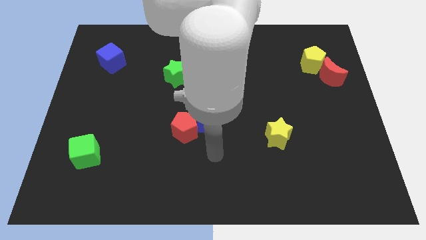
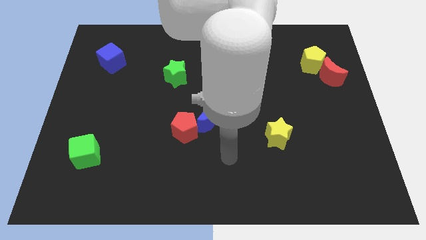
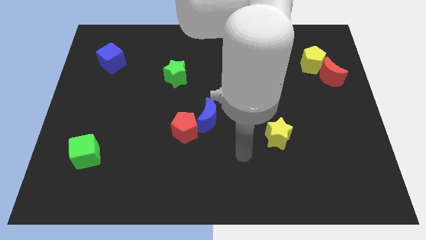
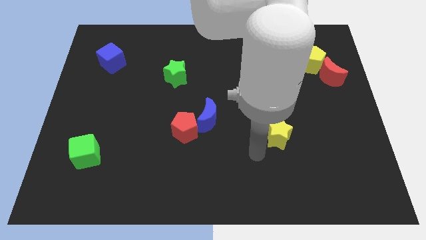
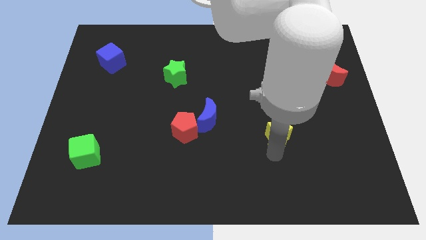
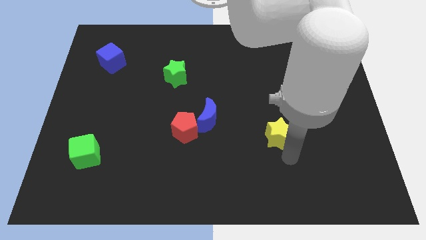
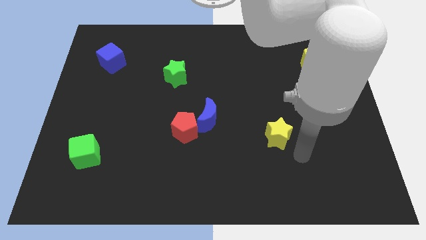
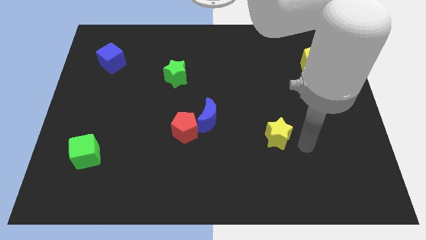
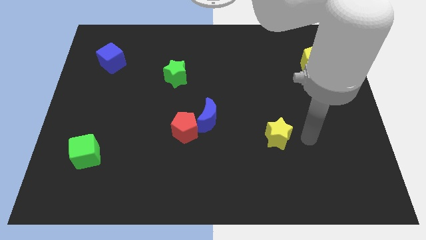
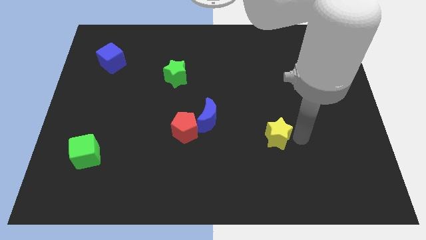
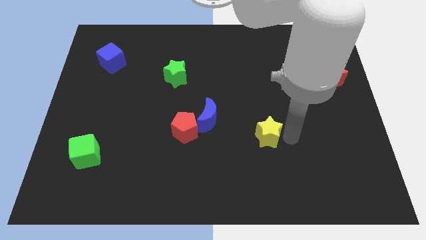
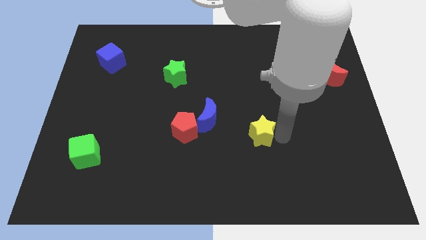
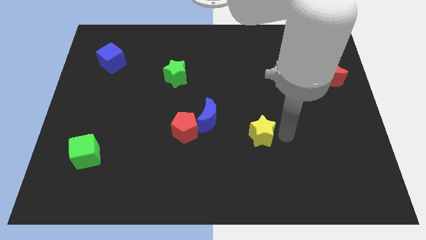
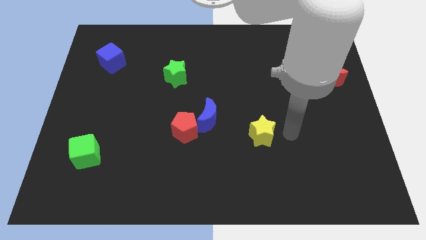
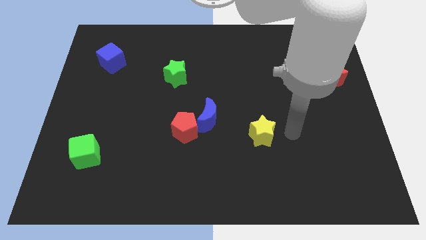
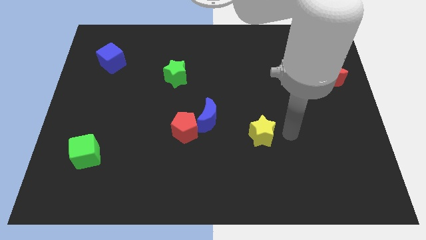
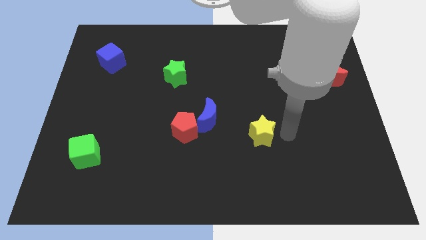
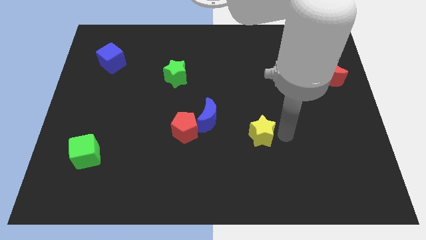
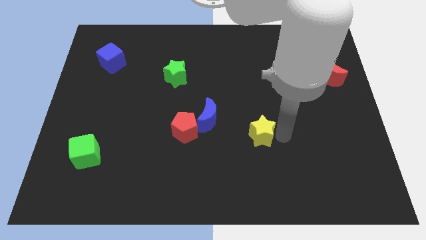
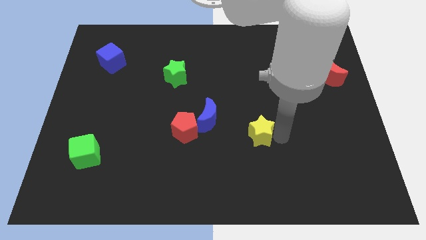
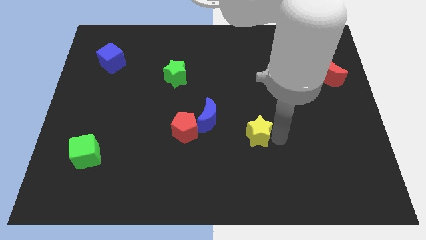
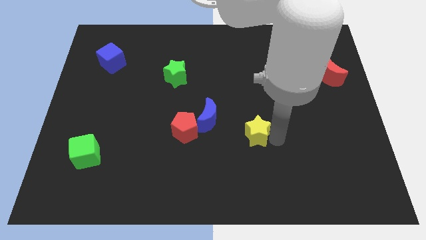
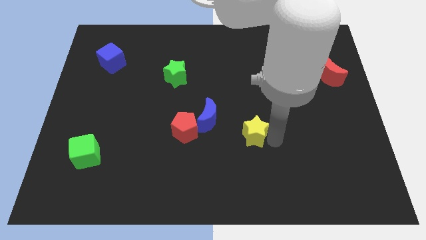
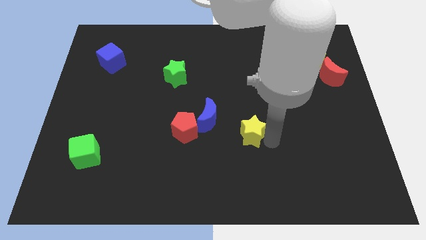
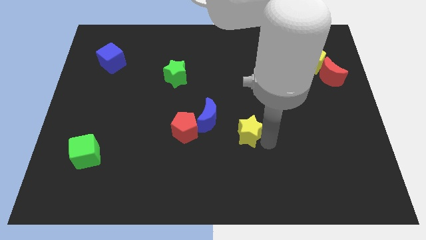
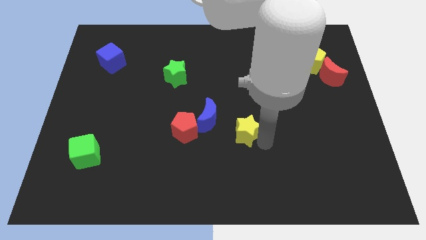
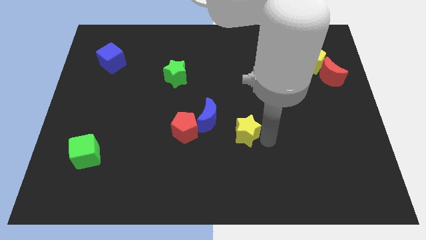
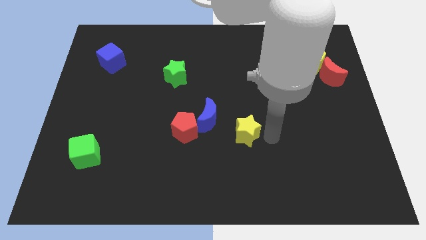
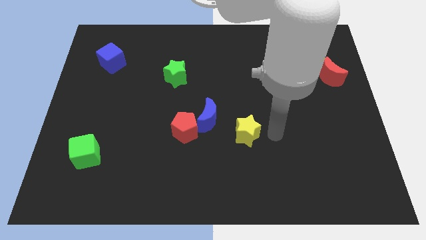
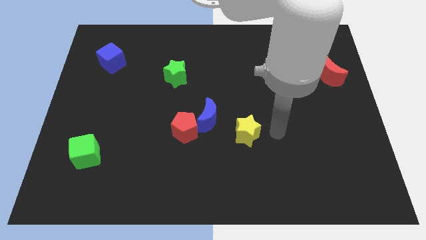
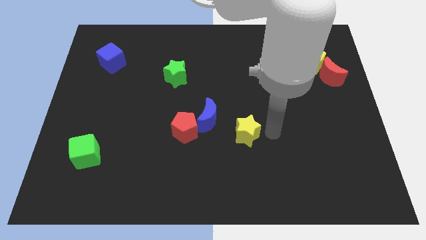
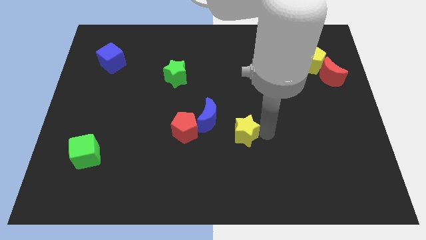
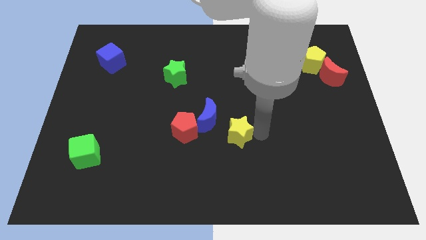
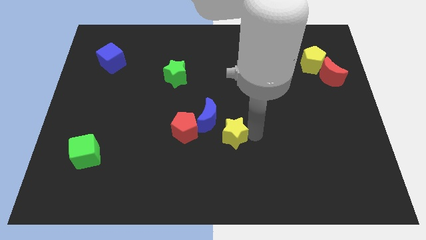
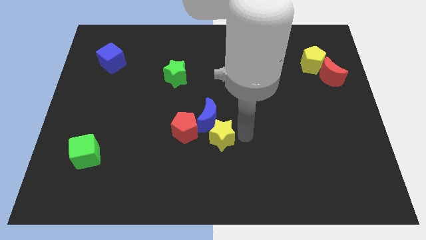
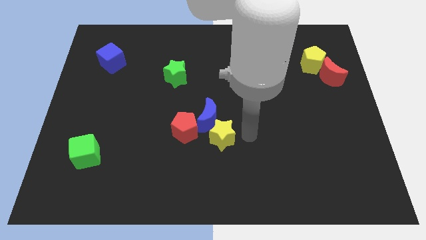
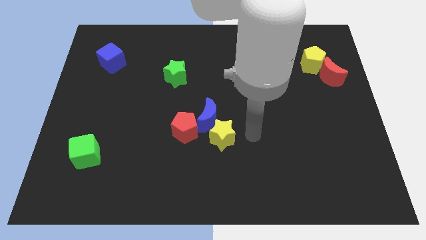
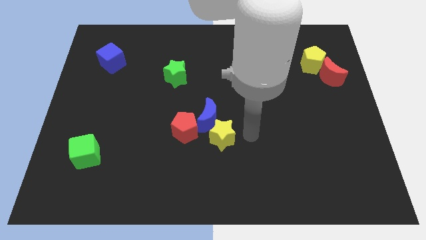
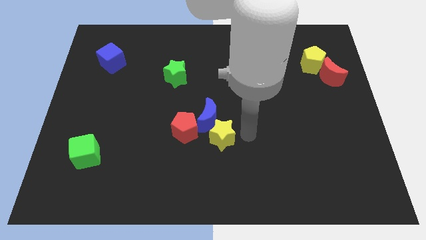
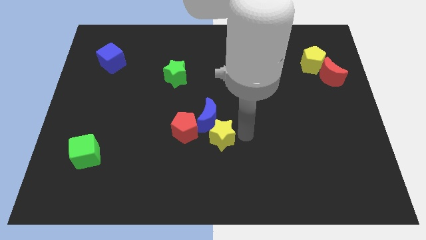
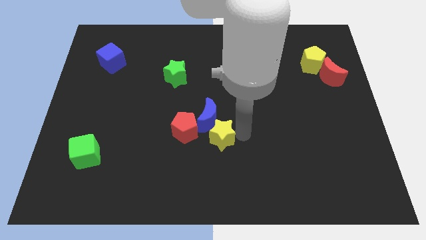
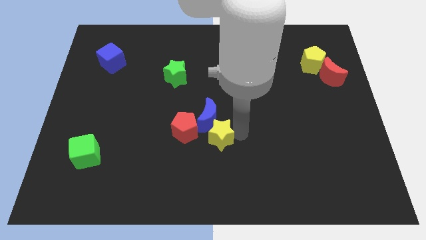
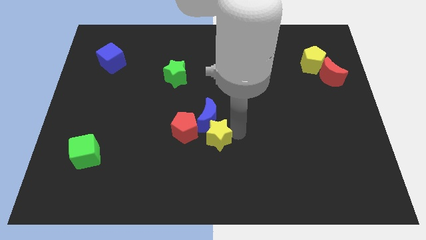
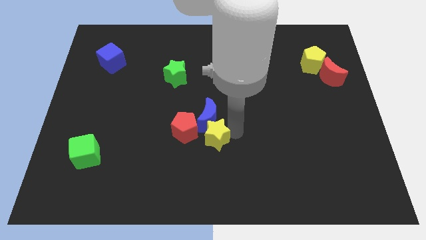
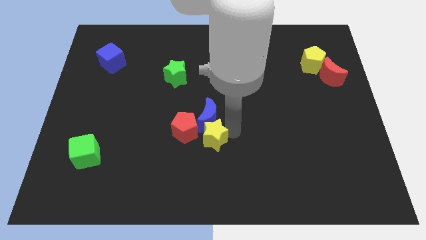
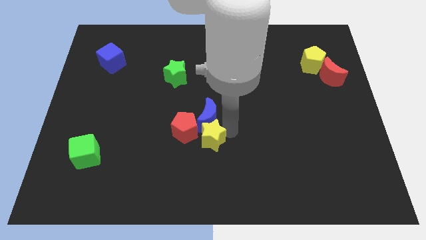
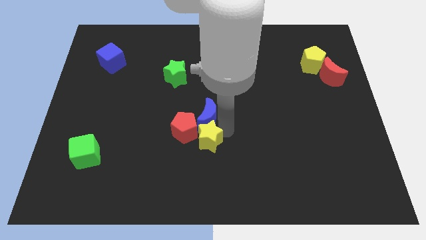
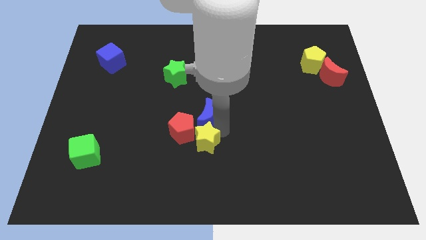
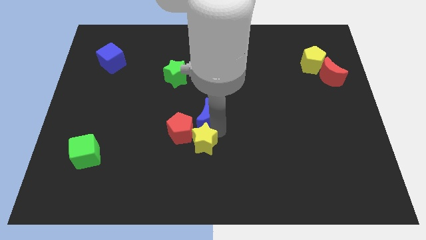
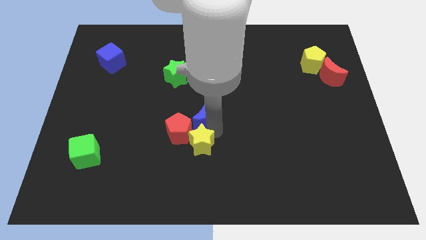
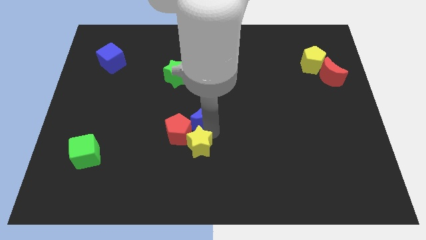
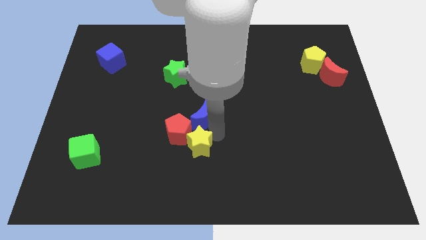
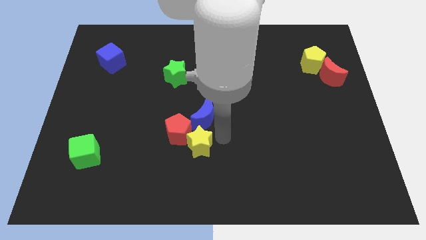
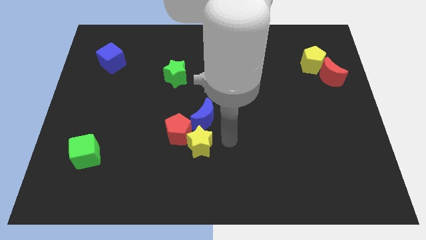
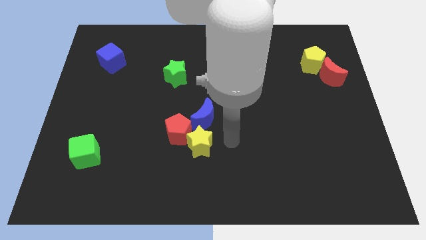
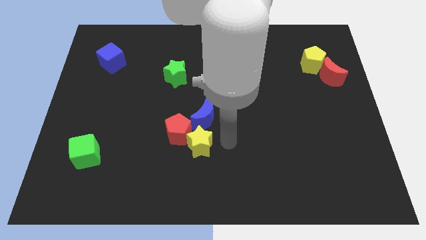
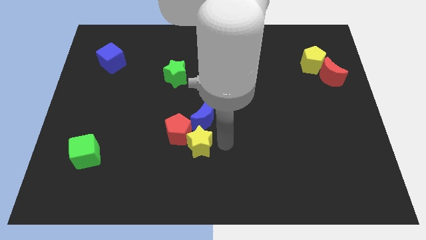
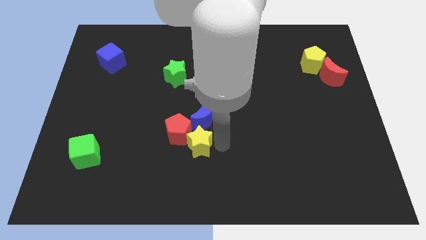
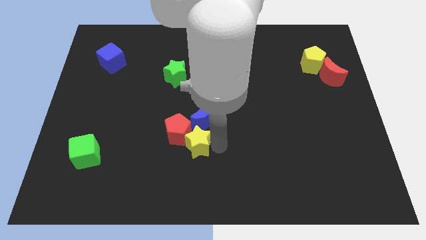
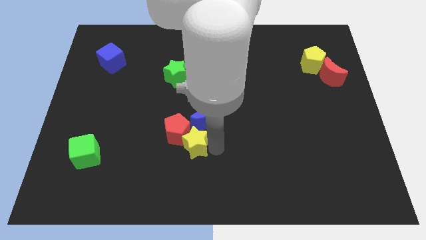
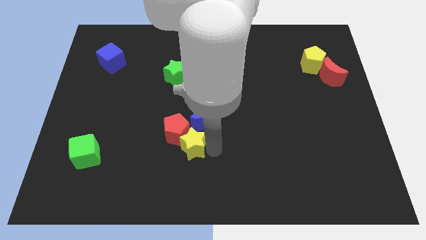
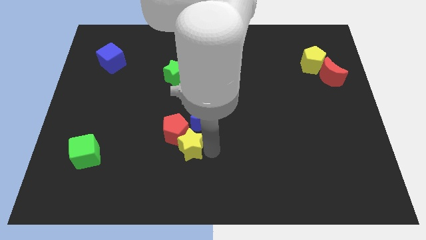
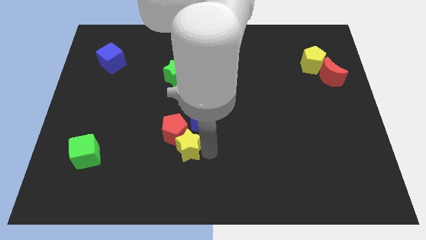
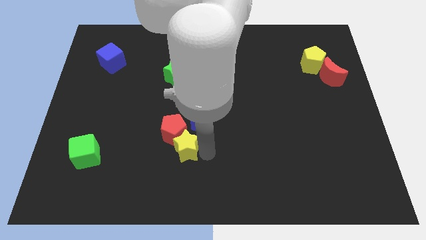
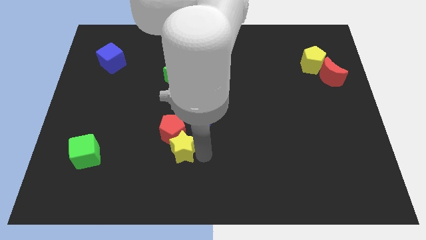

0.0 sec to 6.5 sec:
move the yellow star left

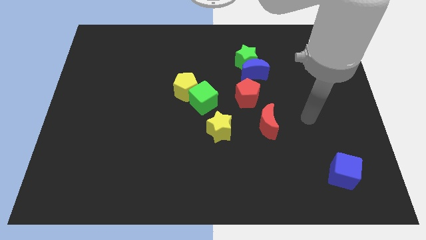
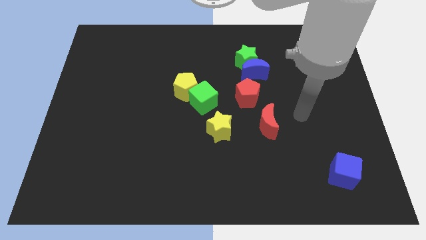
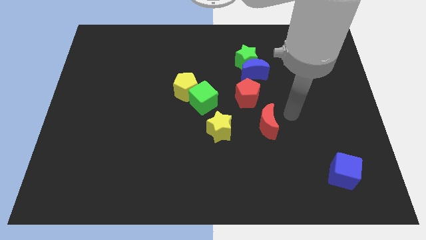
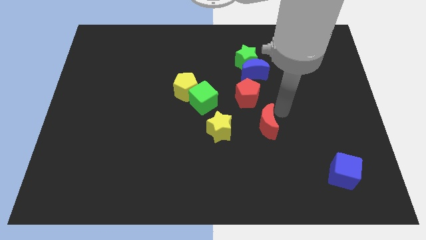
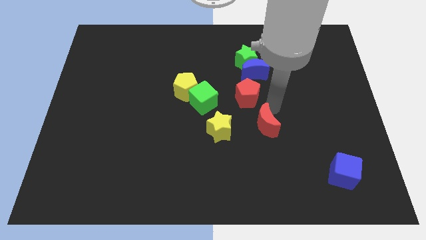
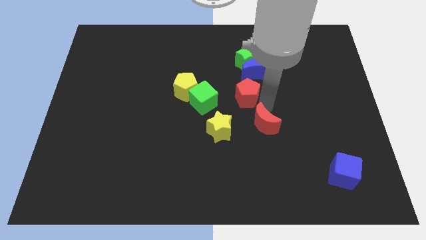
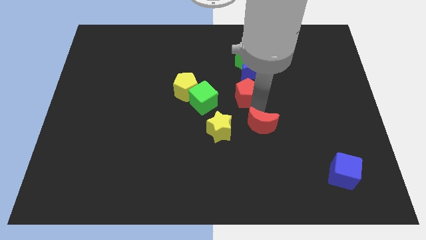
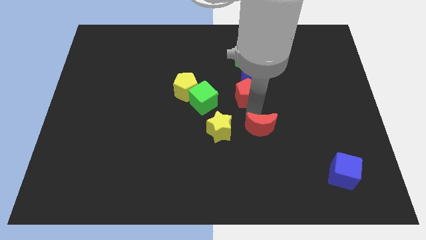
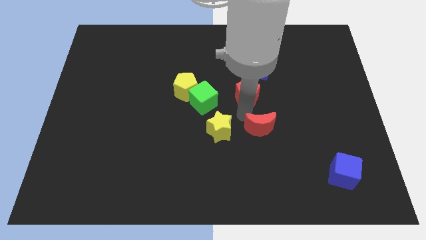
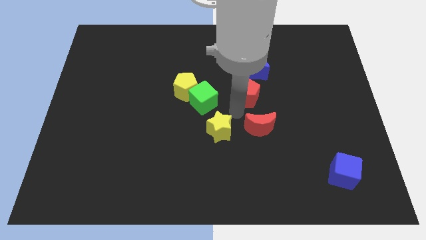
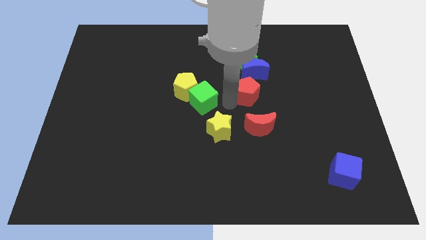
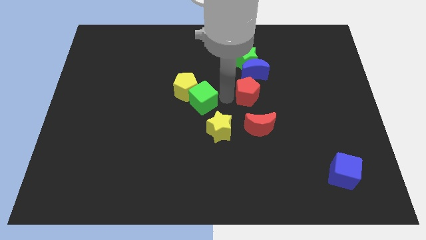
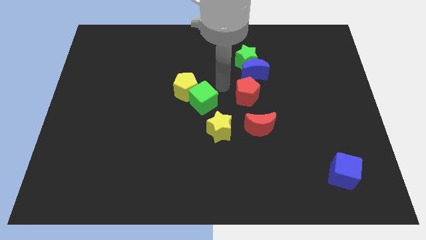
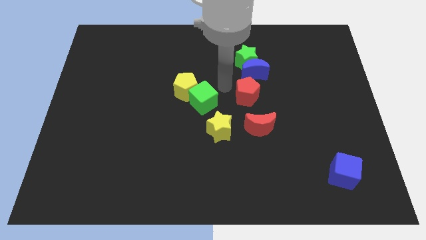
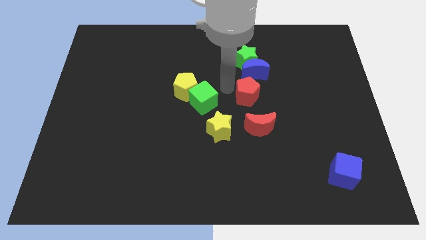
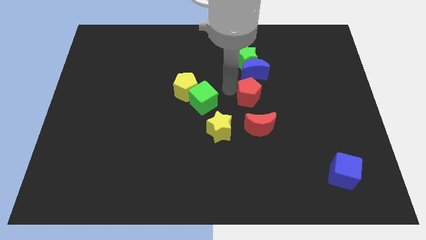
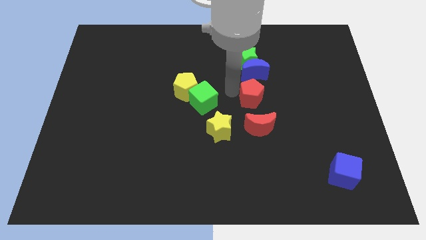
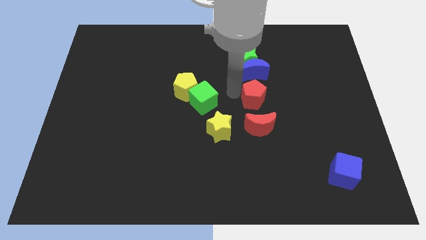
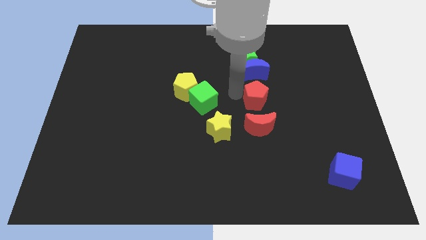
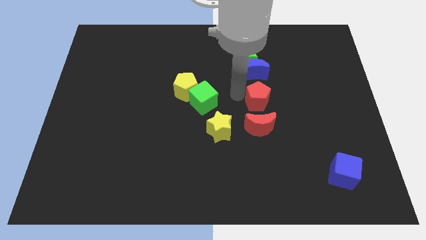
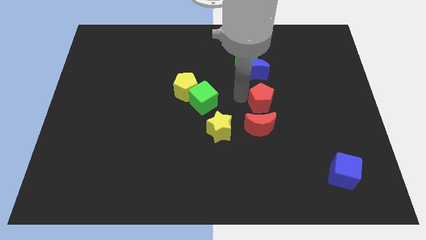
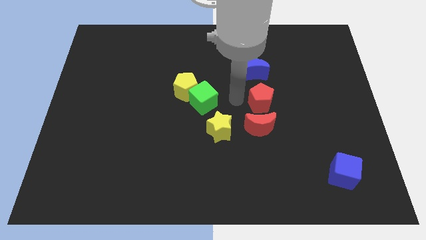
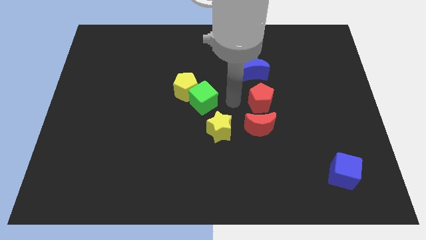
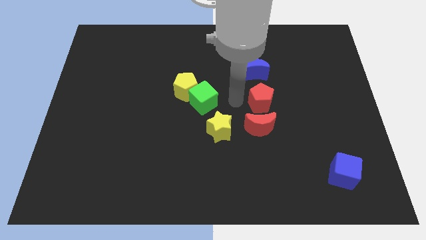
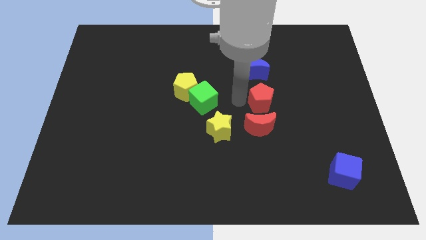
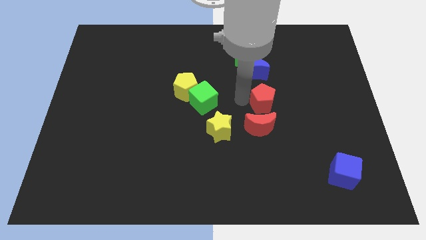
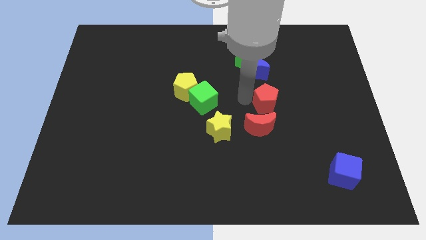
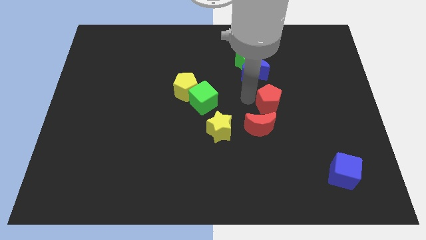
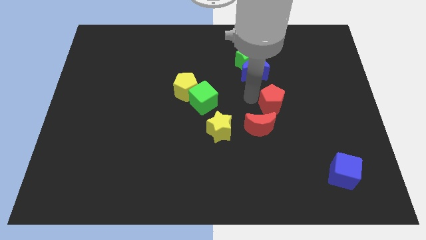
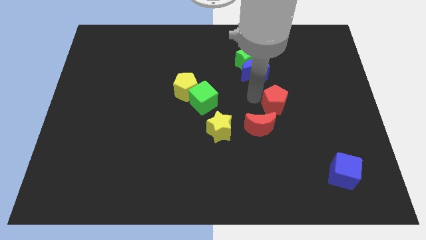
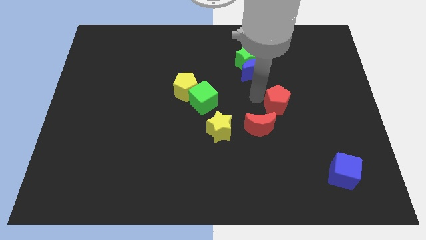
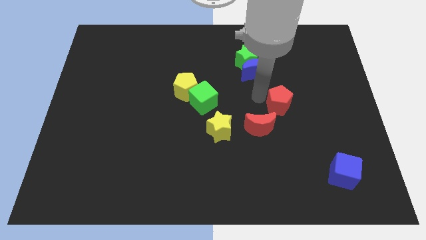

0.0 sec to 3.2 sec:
slightly move the red pentagon right
